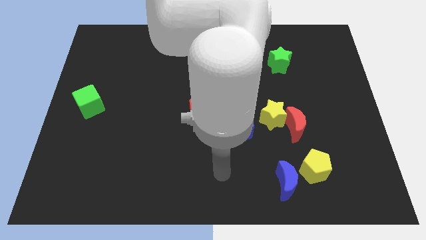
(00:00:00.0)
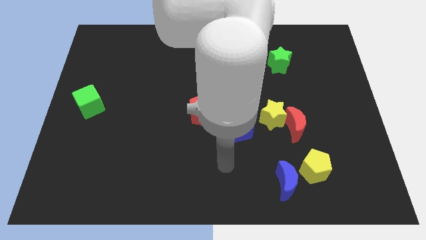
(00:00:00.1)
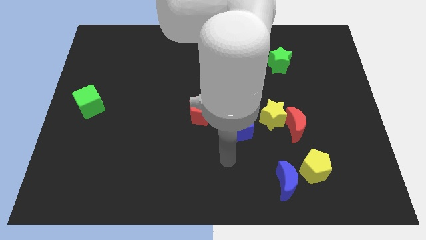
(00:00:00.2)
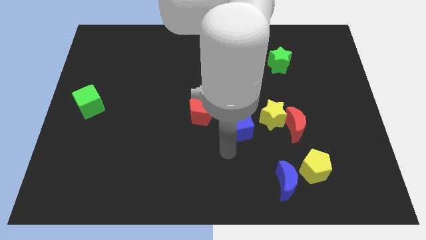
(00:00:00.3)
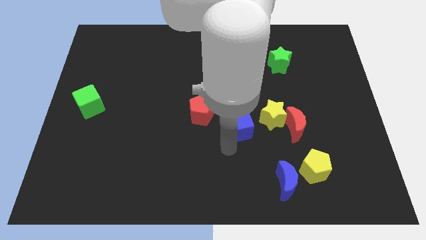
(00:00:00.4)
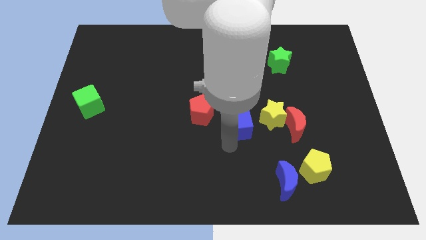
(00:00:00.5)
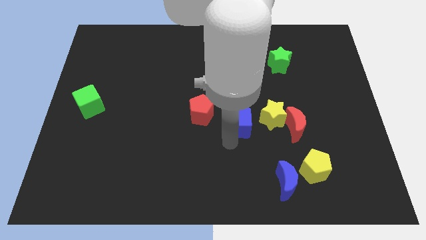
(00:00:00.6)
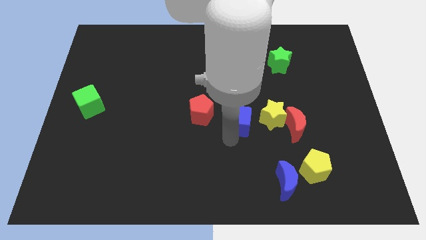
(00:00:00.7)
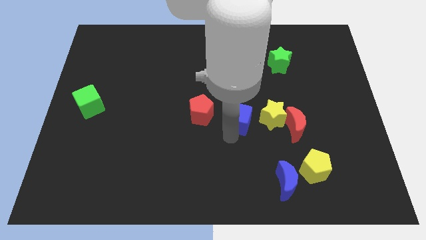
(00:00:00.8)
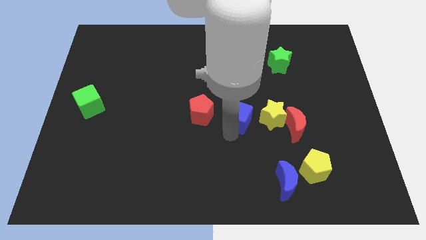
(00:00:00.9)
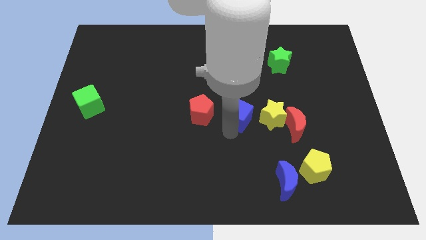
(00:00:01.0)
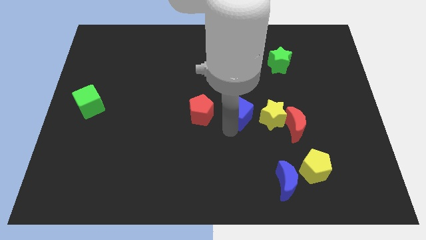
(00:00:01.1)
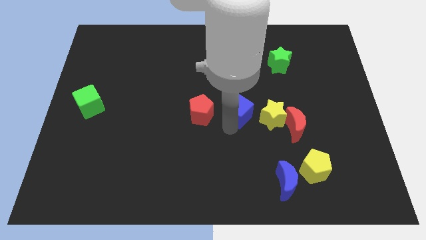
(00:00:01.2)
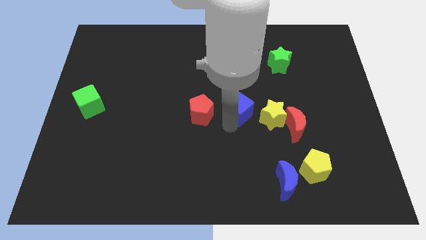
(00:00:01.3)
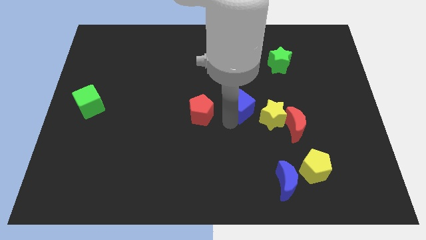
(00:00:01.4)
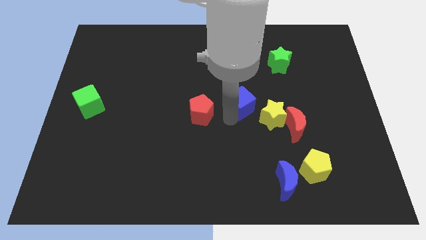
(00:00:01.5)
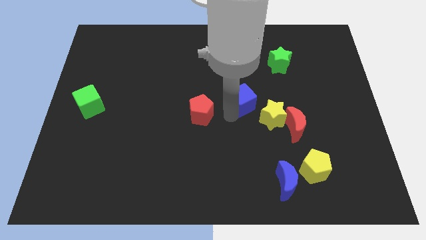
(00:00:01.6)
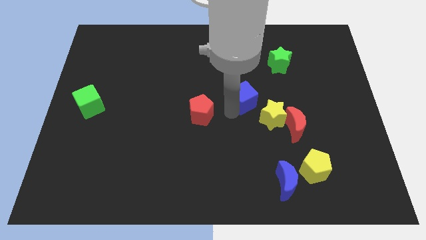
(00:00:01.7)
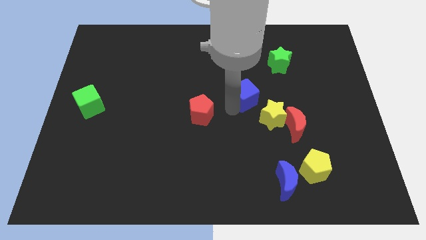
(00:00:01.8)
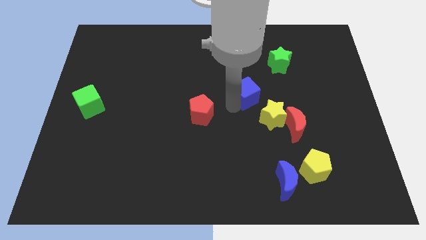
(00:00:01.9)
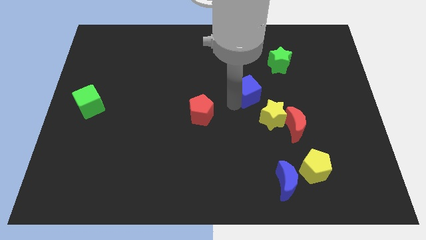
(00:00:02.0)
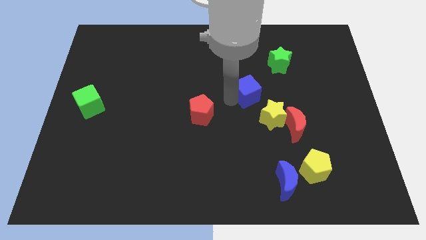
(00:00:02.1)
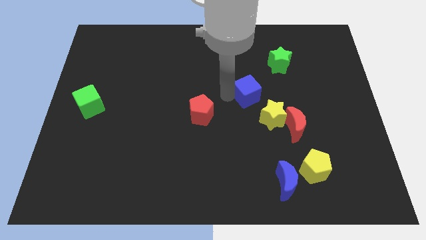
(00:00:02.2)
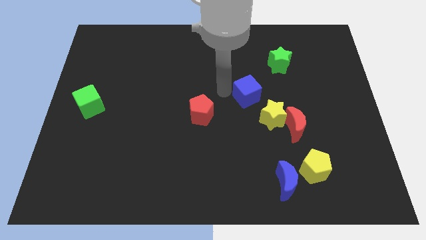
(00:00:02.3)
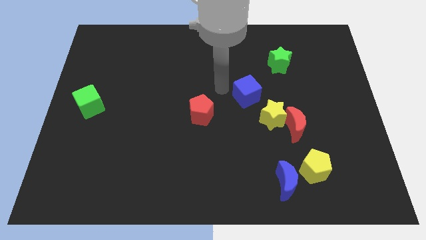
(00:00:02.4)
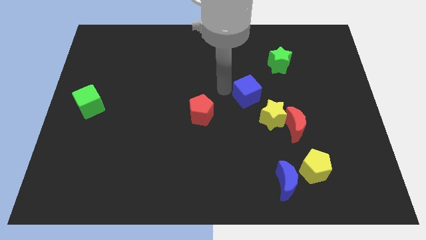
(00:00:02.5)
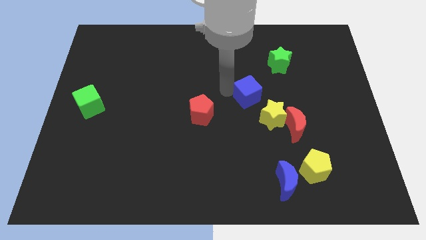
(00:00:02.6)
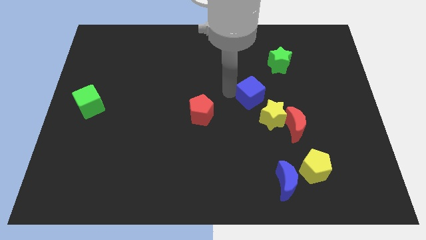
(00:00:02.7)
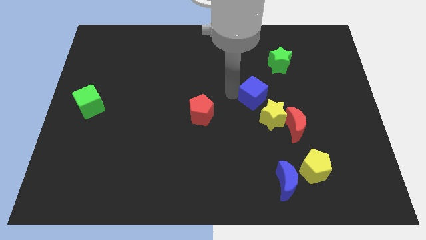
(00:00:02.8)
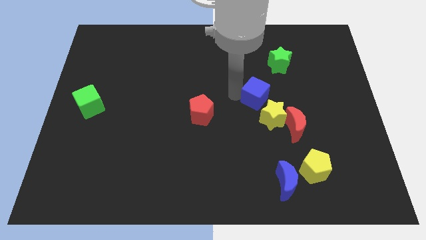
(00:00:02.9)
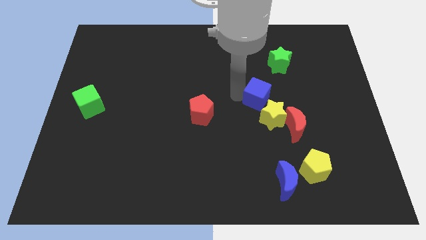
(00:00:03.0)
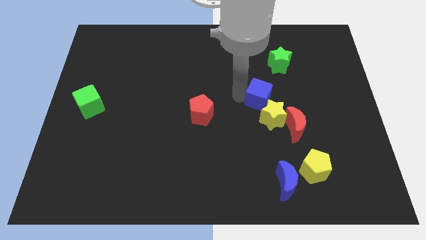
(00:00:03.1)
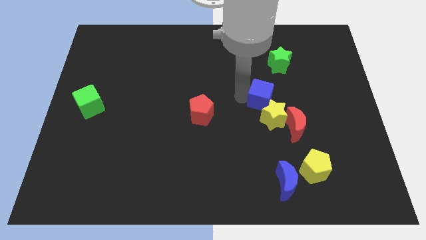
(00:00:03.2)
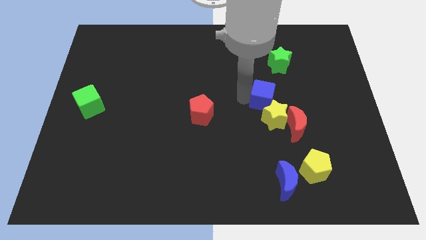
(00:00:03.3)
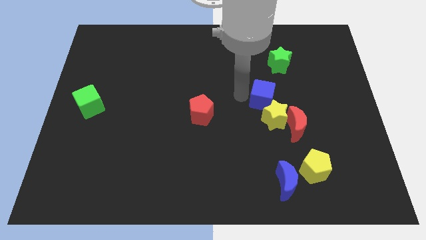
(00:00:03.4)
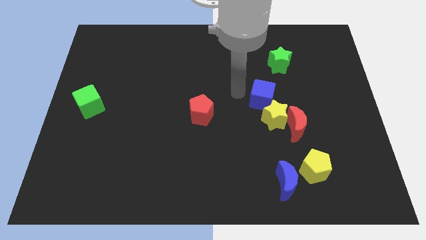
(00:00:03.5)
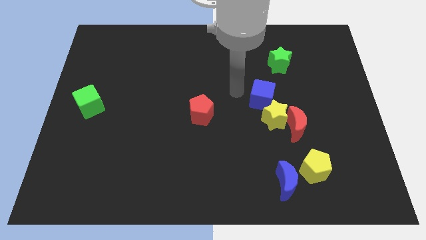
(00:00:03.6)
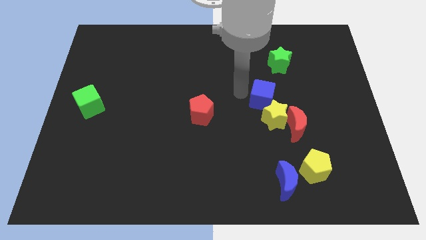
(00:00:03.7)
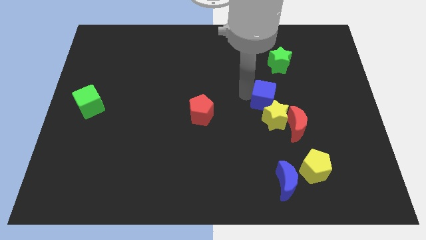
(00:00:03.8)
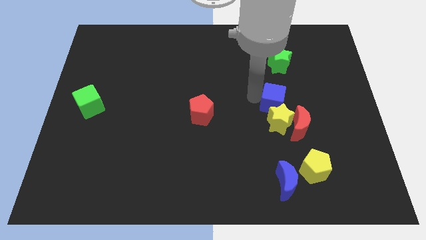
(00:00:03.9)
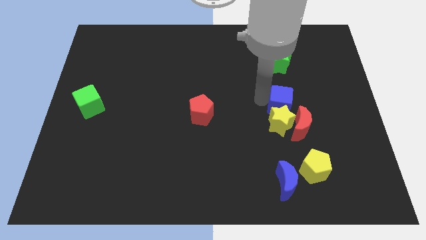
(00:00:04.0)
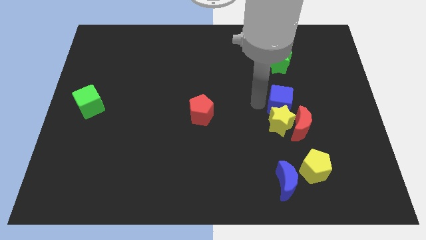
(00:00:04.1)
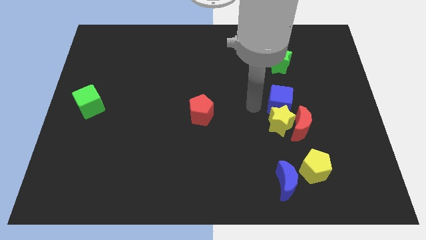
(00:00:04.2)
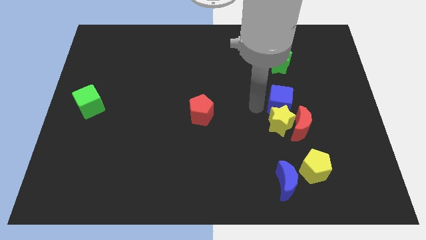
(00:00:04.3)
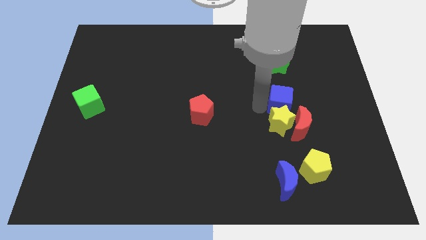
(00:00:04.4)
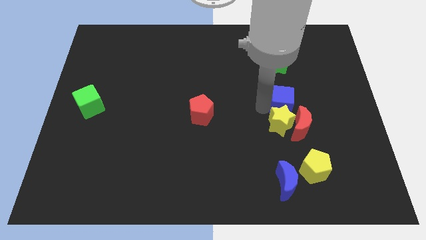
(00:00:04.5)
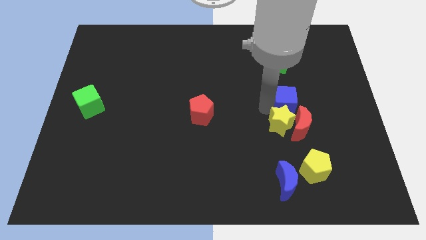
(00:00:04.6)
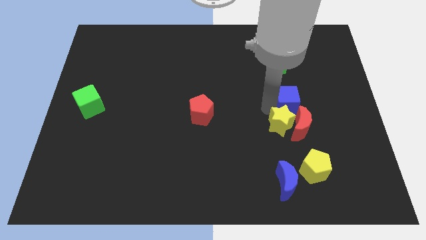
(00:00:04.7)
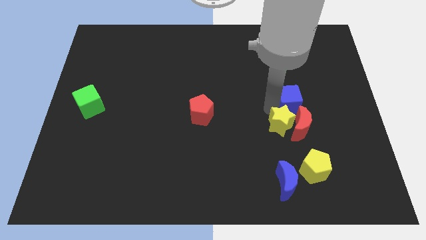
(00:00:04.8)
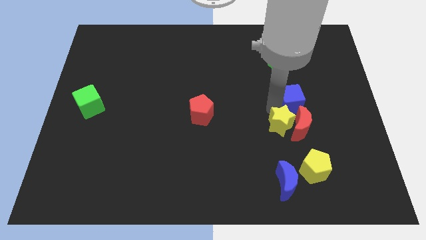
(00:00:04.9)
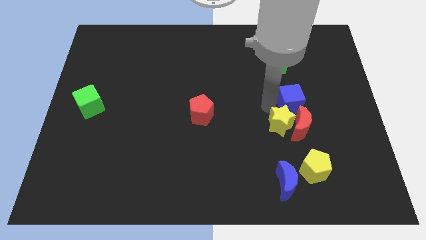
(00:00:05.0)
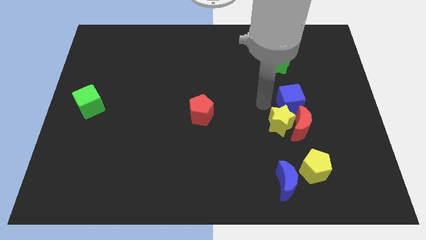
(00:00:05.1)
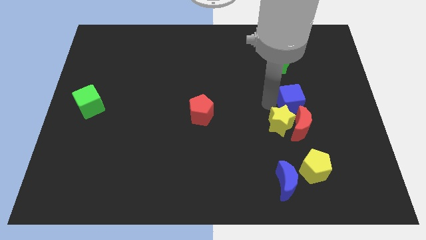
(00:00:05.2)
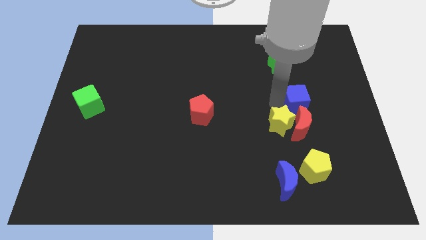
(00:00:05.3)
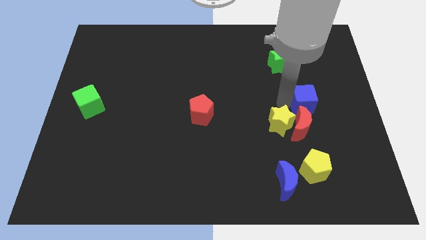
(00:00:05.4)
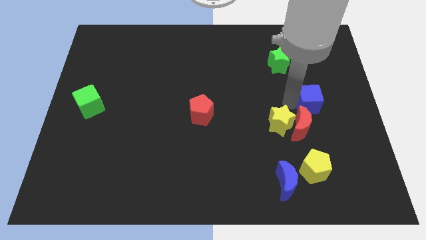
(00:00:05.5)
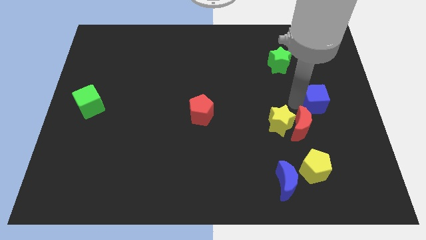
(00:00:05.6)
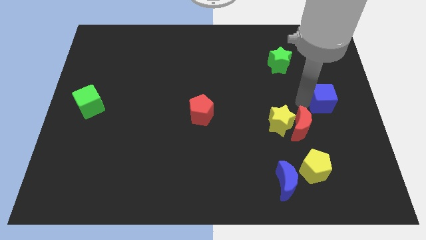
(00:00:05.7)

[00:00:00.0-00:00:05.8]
push the blue cube to the right side of the board

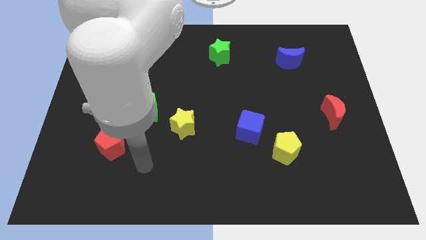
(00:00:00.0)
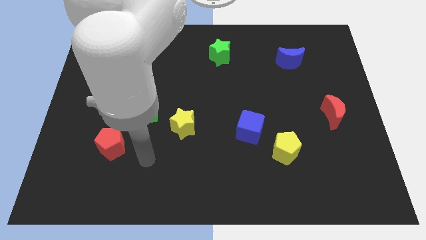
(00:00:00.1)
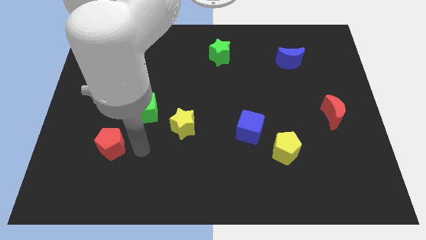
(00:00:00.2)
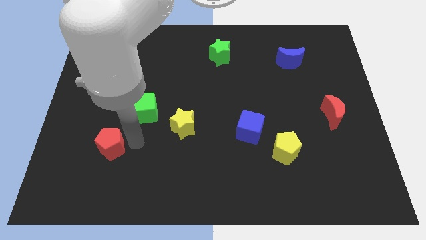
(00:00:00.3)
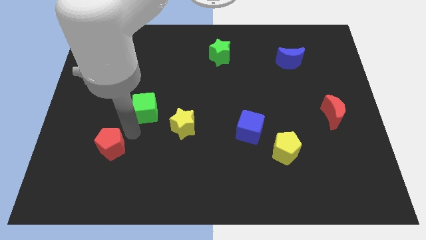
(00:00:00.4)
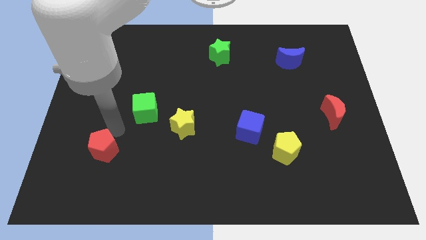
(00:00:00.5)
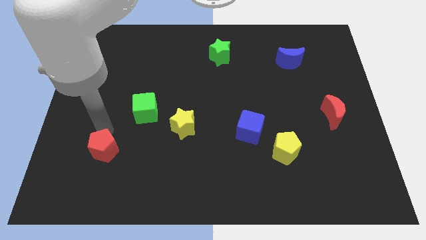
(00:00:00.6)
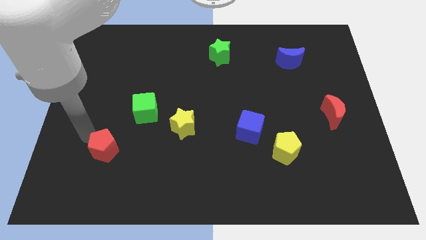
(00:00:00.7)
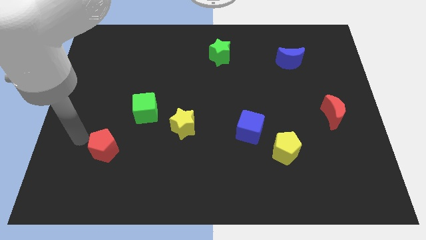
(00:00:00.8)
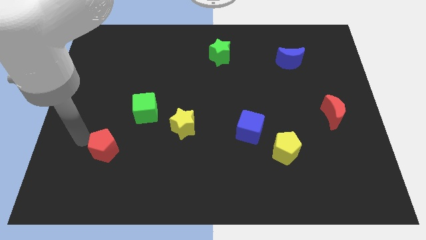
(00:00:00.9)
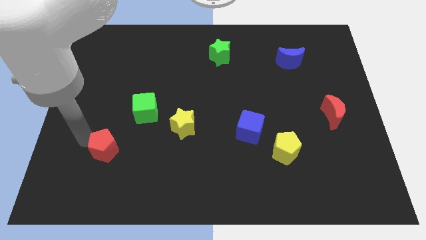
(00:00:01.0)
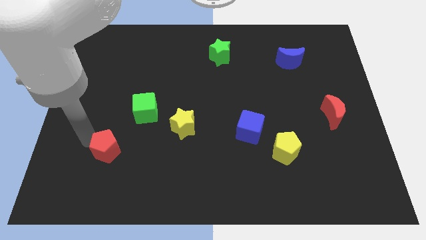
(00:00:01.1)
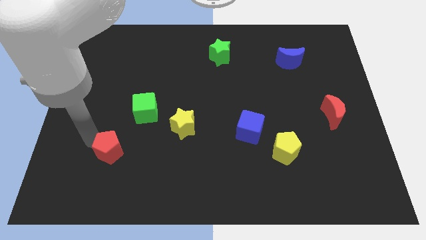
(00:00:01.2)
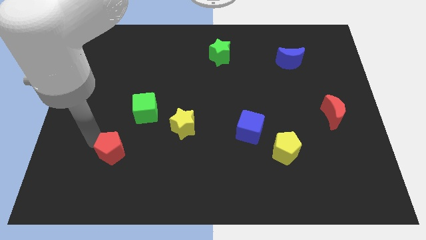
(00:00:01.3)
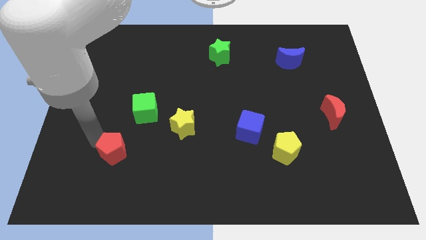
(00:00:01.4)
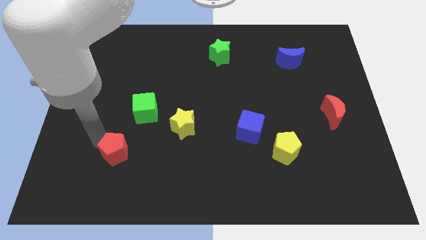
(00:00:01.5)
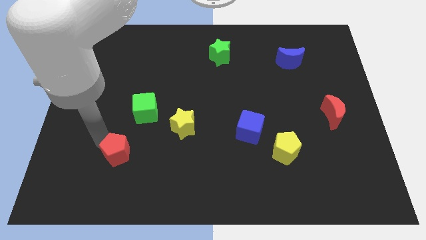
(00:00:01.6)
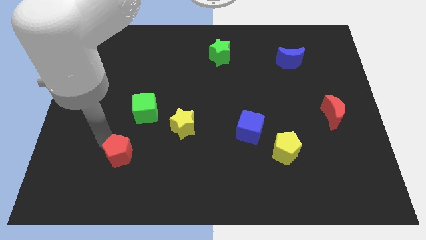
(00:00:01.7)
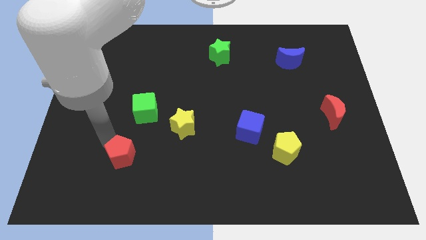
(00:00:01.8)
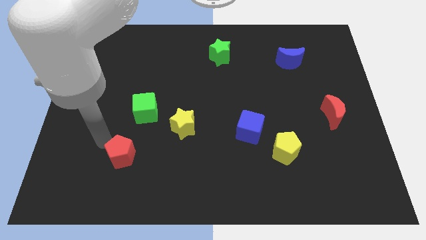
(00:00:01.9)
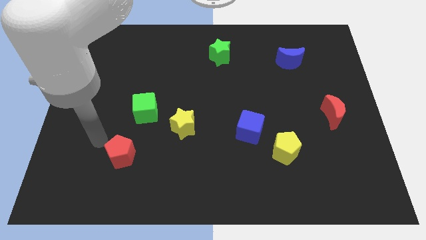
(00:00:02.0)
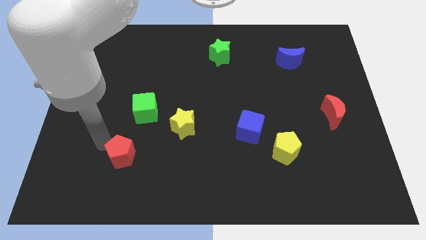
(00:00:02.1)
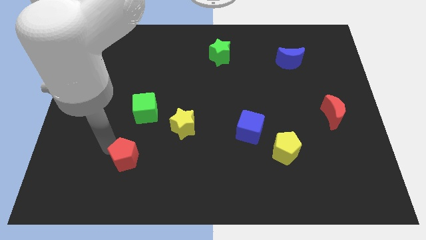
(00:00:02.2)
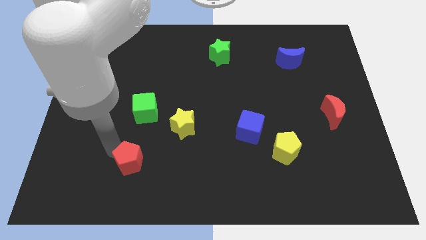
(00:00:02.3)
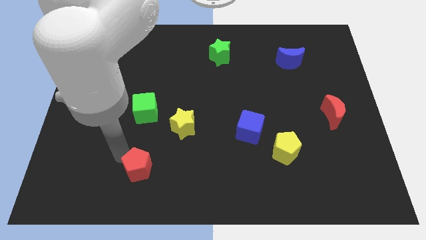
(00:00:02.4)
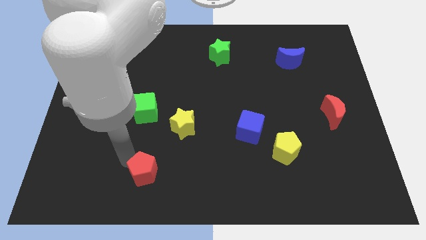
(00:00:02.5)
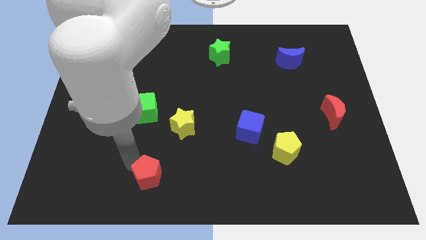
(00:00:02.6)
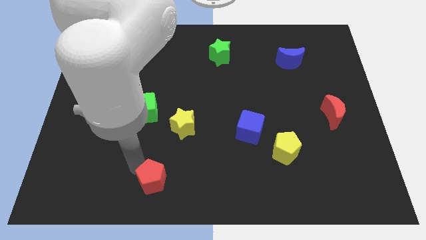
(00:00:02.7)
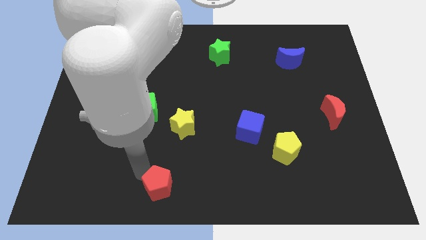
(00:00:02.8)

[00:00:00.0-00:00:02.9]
slide the red pentagon to the bottom side
